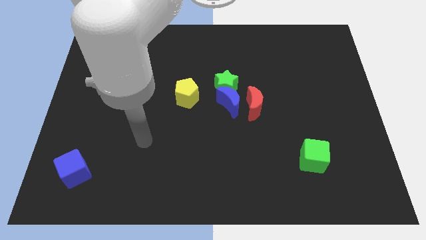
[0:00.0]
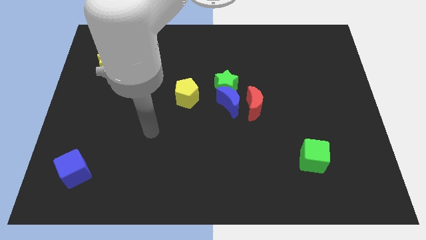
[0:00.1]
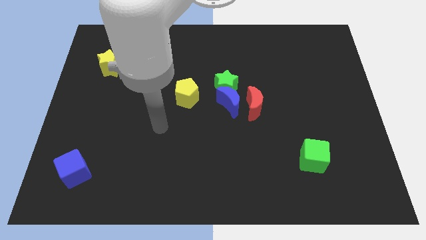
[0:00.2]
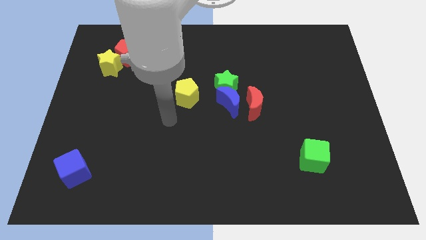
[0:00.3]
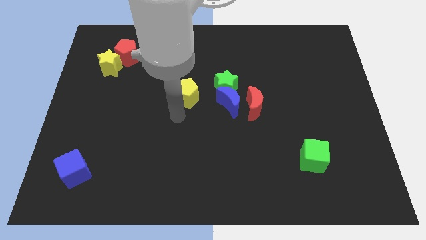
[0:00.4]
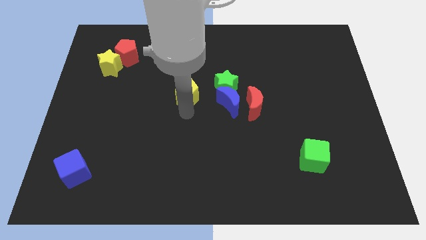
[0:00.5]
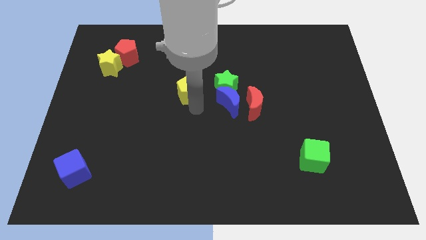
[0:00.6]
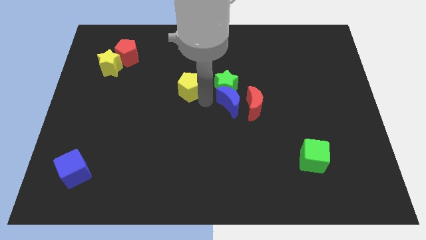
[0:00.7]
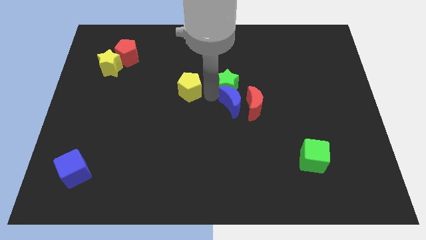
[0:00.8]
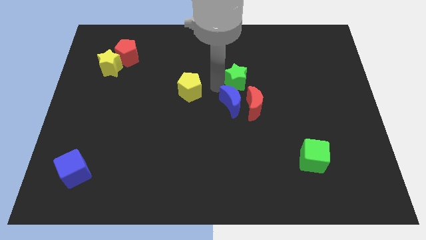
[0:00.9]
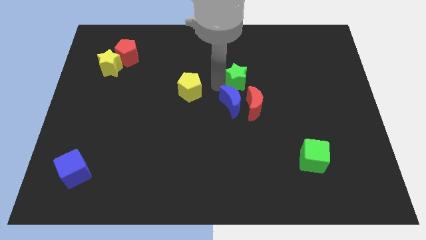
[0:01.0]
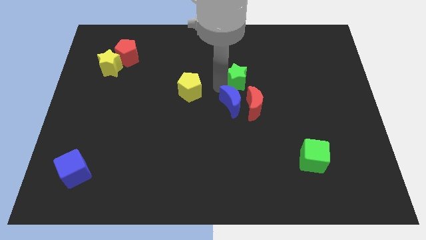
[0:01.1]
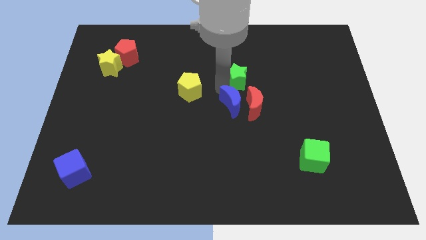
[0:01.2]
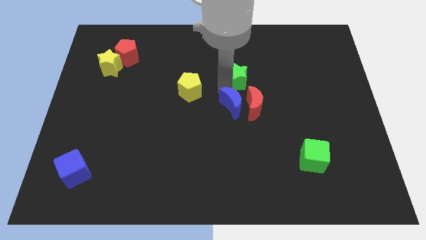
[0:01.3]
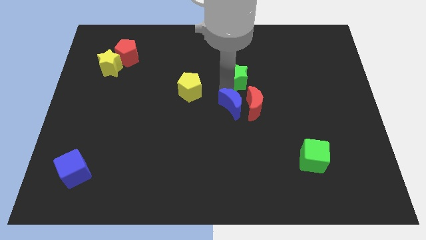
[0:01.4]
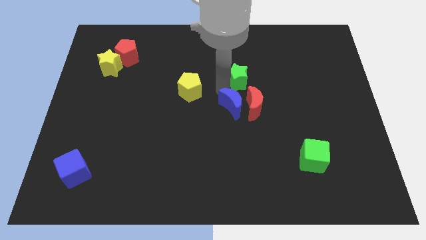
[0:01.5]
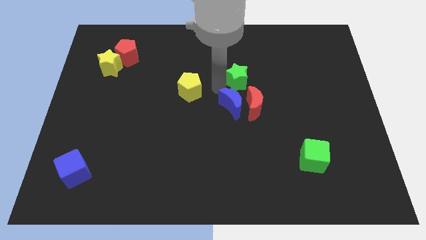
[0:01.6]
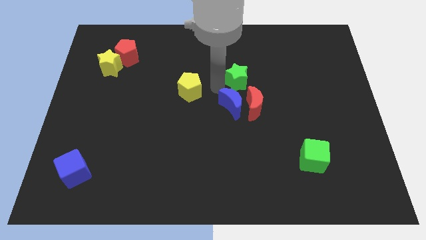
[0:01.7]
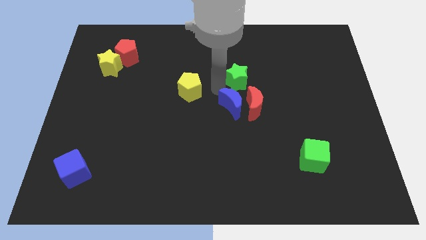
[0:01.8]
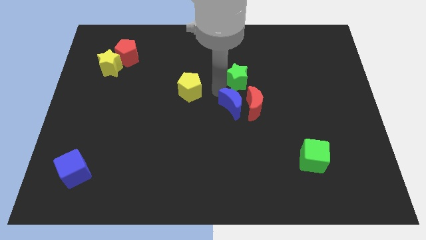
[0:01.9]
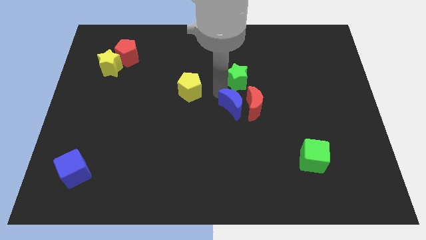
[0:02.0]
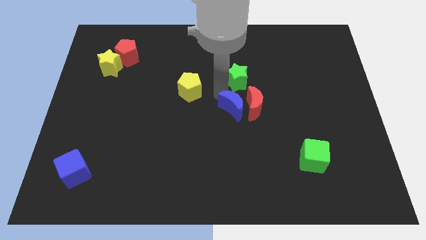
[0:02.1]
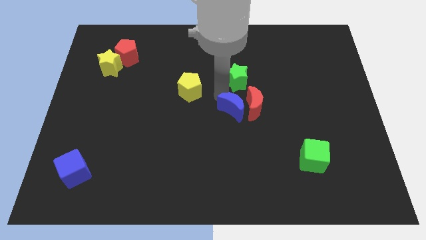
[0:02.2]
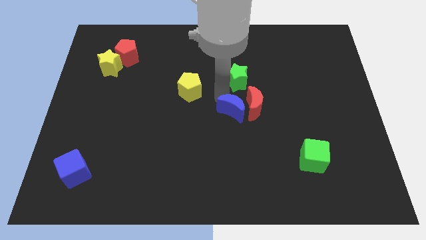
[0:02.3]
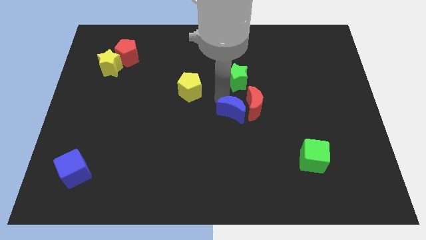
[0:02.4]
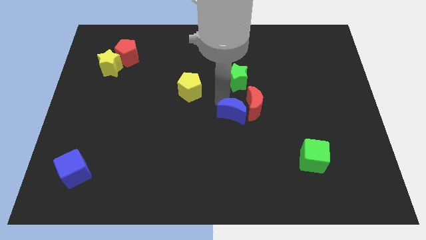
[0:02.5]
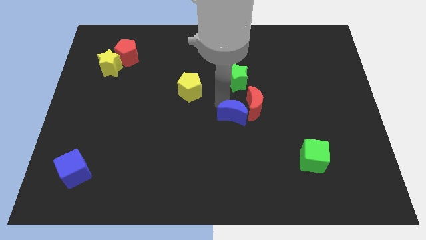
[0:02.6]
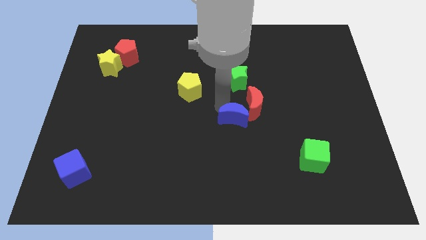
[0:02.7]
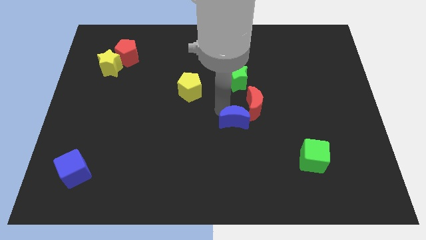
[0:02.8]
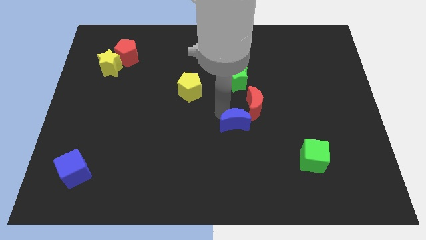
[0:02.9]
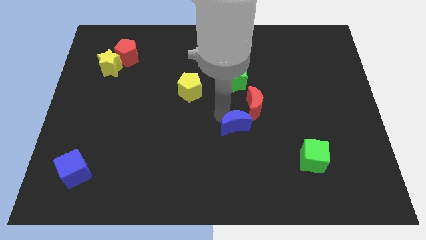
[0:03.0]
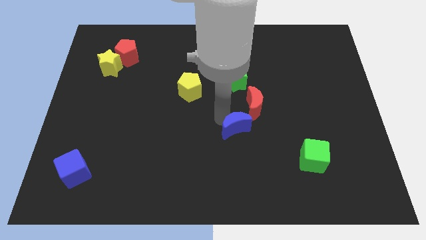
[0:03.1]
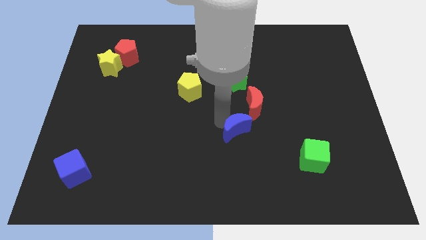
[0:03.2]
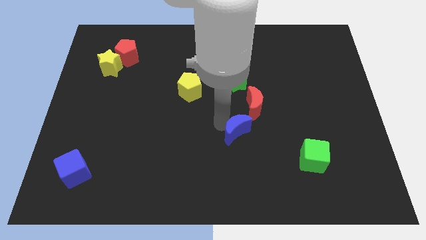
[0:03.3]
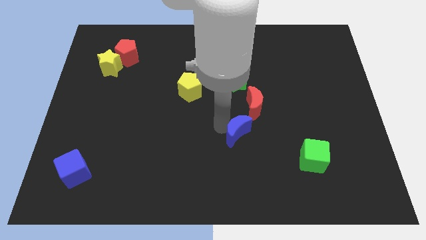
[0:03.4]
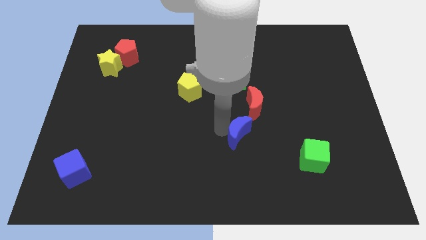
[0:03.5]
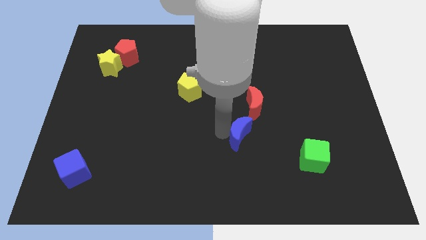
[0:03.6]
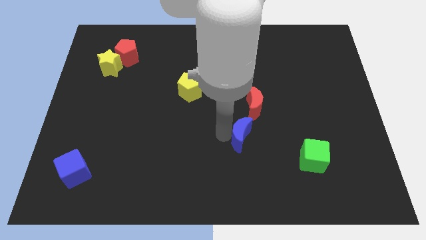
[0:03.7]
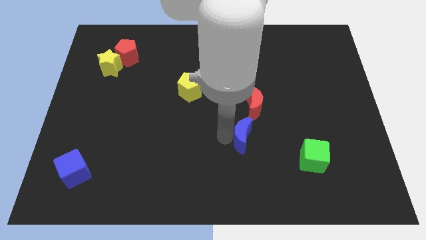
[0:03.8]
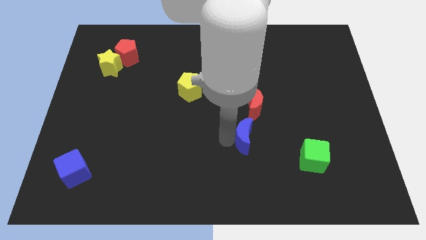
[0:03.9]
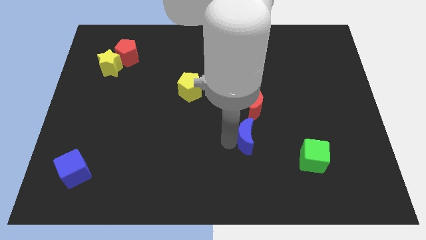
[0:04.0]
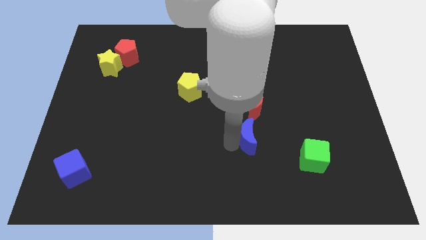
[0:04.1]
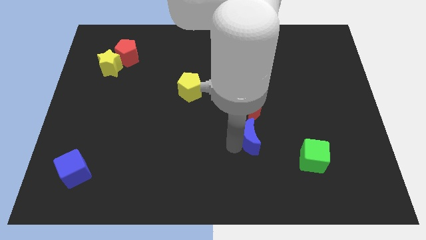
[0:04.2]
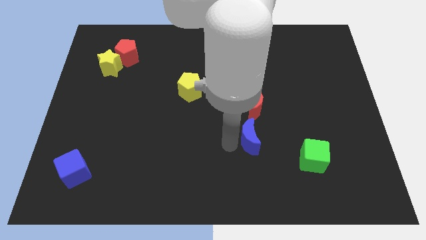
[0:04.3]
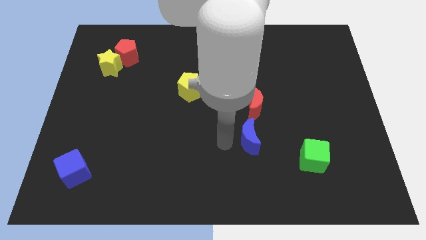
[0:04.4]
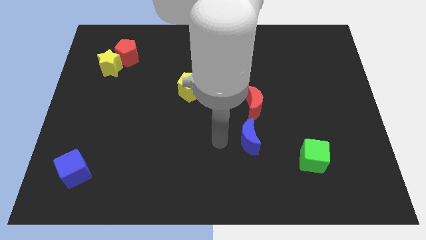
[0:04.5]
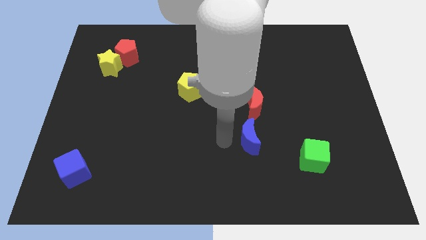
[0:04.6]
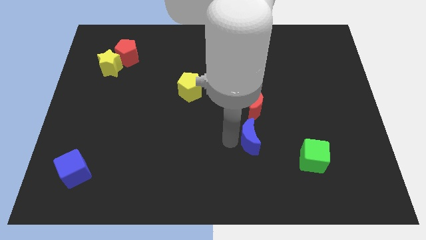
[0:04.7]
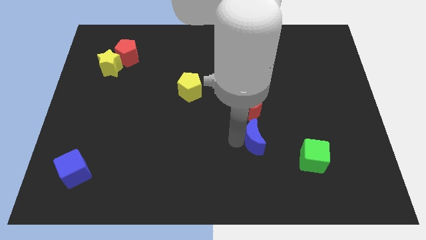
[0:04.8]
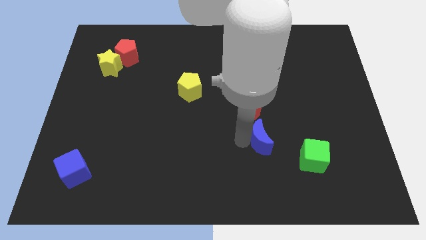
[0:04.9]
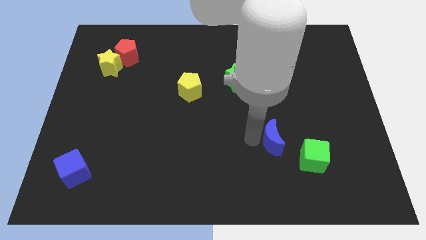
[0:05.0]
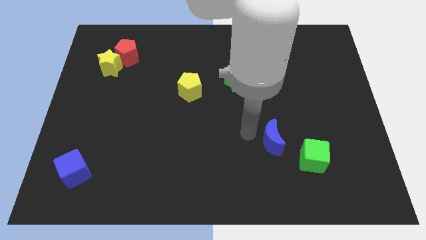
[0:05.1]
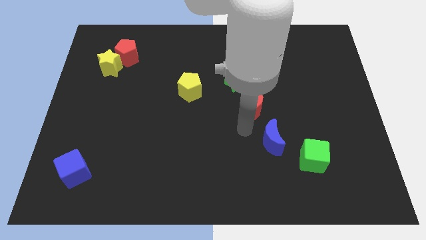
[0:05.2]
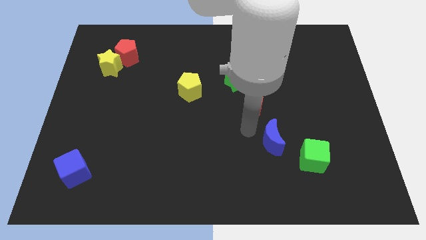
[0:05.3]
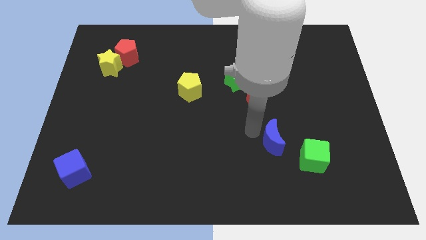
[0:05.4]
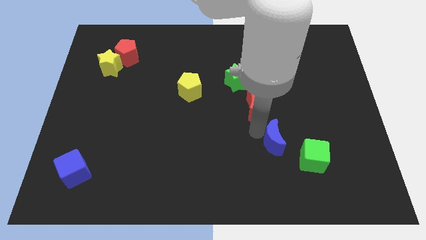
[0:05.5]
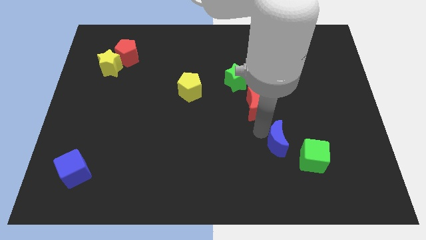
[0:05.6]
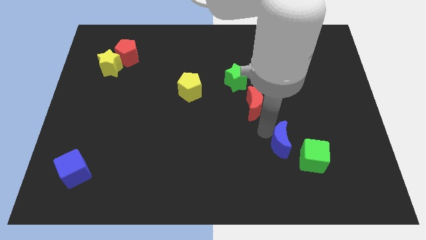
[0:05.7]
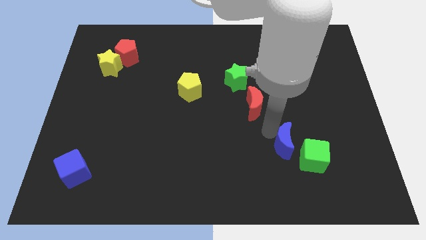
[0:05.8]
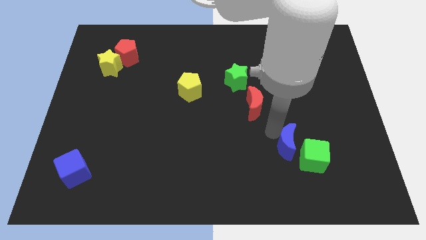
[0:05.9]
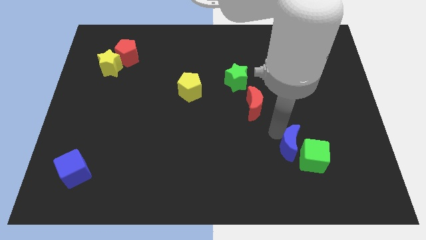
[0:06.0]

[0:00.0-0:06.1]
move the blue moon towards the green cube
